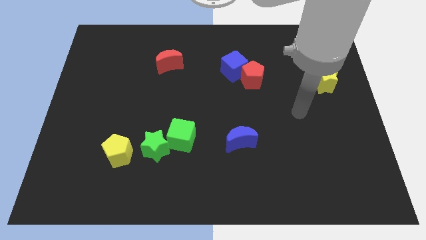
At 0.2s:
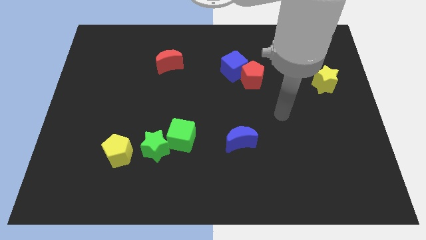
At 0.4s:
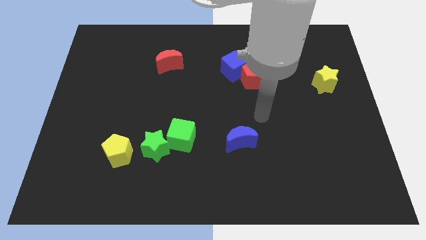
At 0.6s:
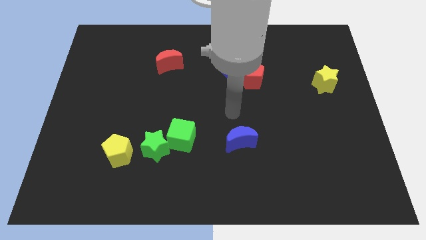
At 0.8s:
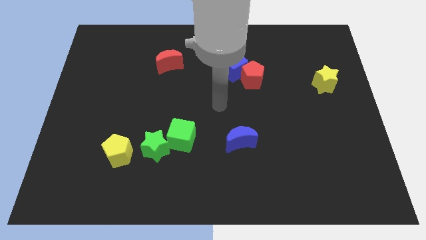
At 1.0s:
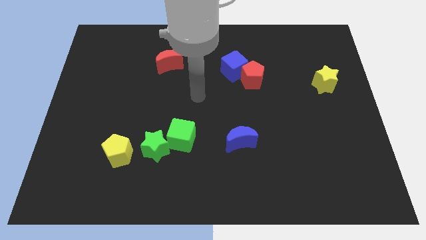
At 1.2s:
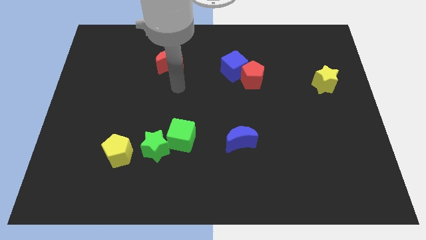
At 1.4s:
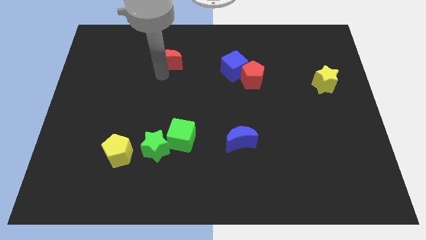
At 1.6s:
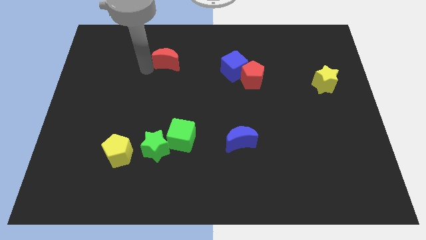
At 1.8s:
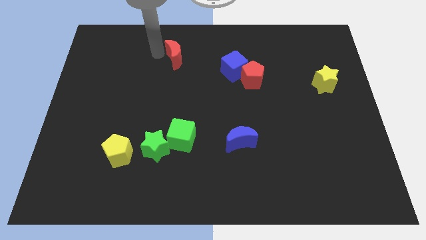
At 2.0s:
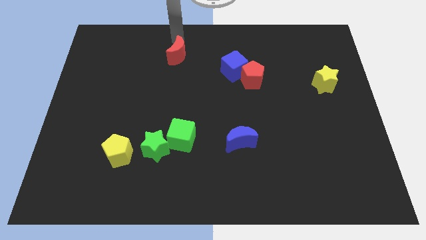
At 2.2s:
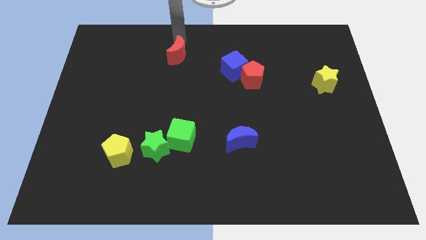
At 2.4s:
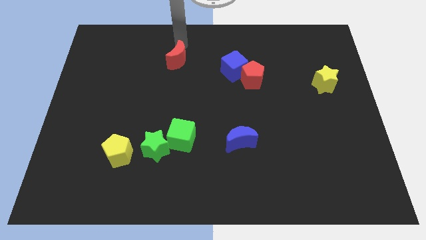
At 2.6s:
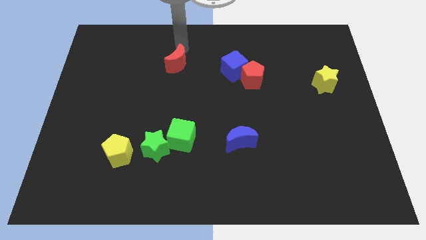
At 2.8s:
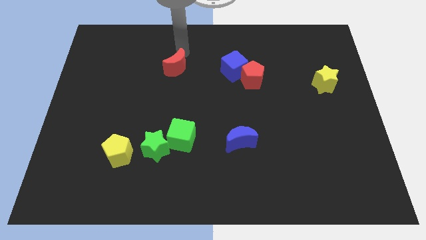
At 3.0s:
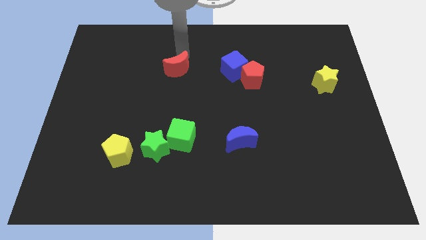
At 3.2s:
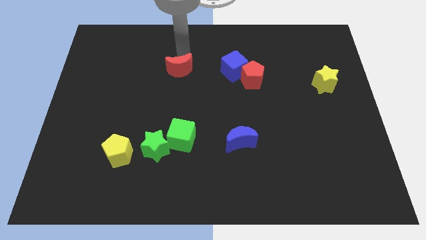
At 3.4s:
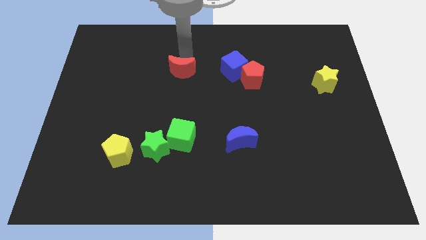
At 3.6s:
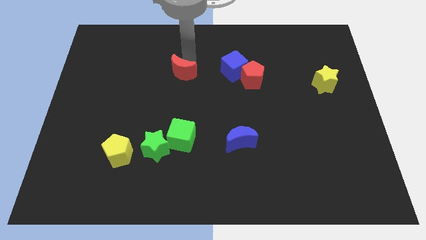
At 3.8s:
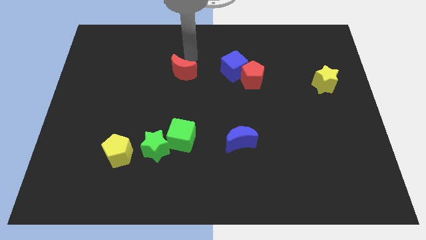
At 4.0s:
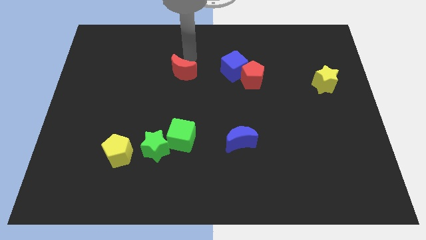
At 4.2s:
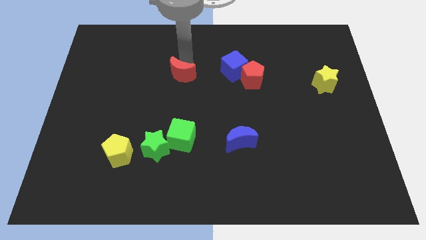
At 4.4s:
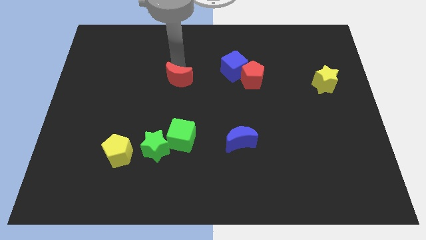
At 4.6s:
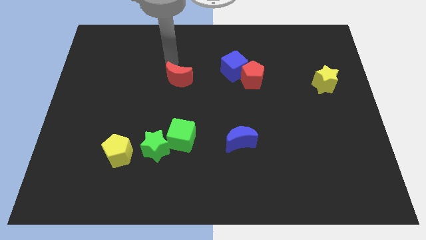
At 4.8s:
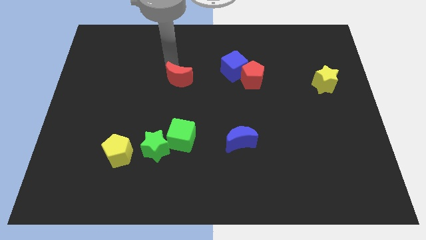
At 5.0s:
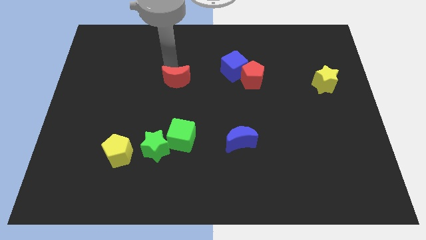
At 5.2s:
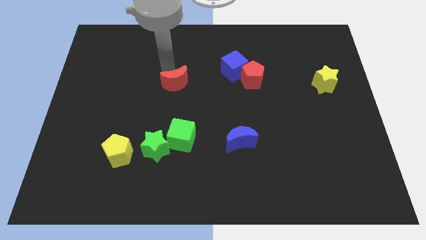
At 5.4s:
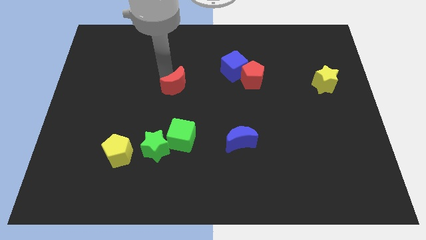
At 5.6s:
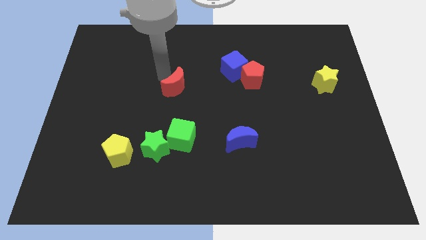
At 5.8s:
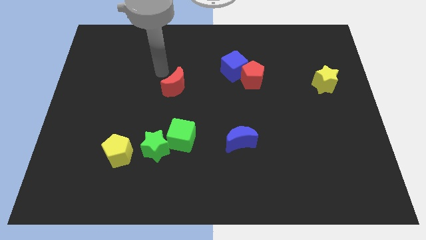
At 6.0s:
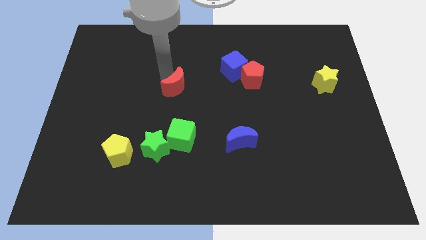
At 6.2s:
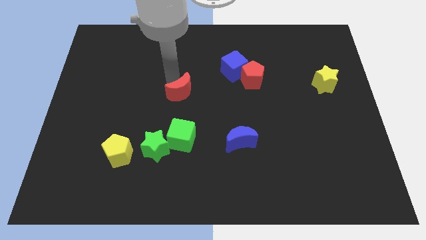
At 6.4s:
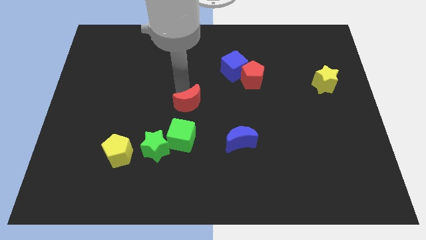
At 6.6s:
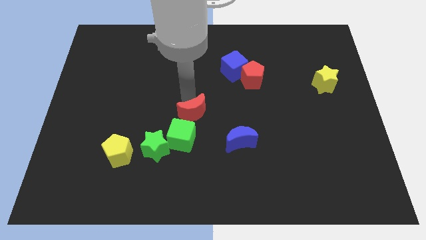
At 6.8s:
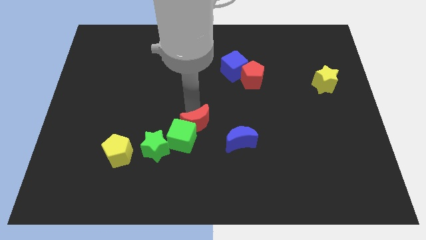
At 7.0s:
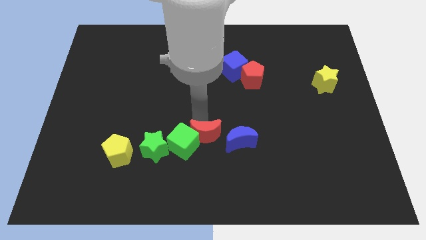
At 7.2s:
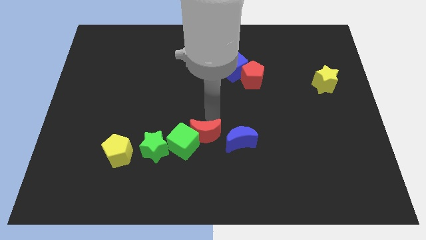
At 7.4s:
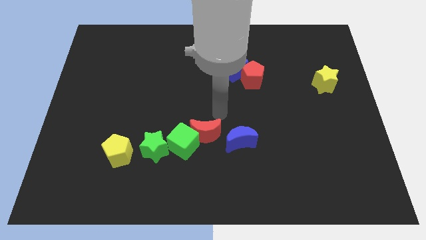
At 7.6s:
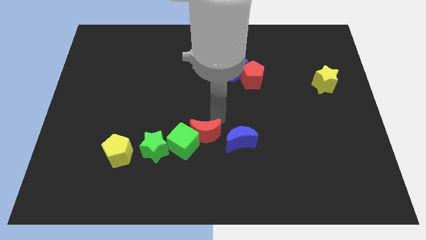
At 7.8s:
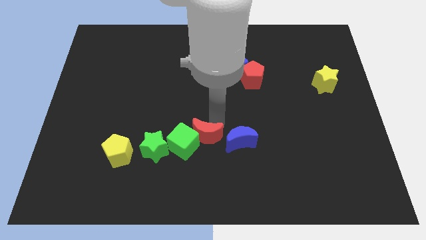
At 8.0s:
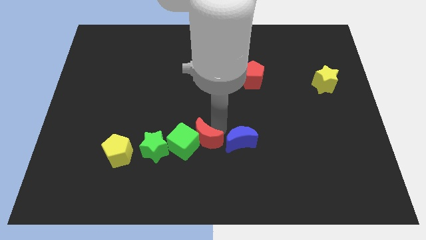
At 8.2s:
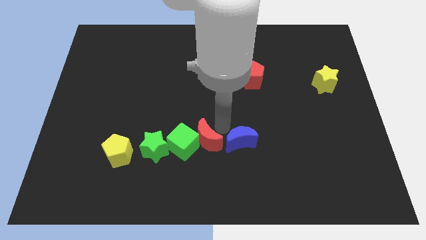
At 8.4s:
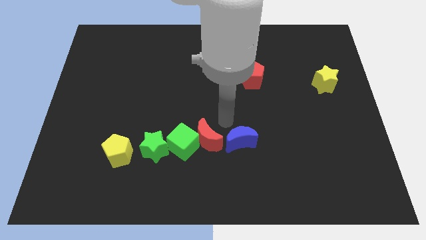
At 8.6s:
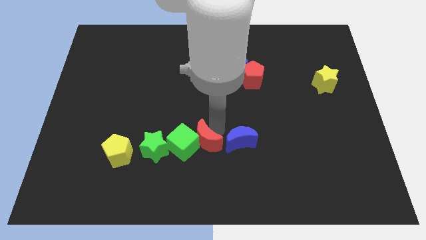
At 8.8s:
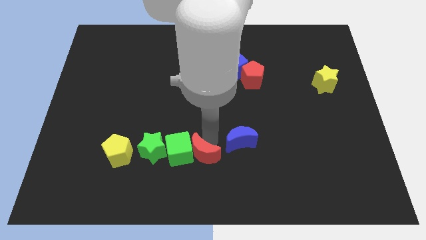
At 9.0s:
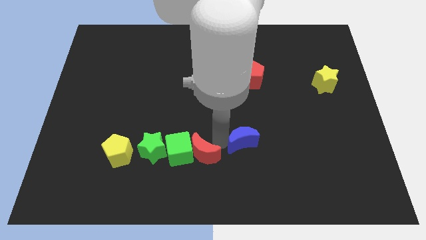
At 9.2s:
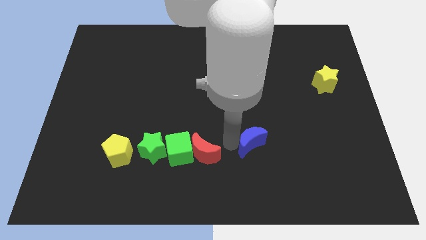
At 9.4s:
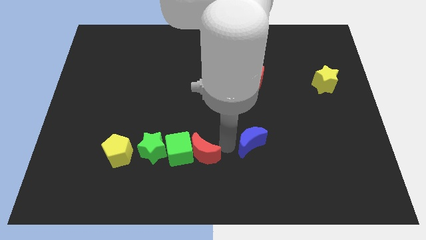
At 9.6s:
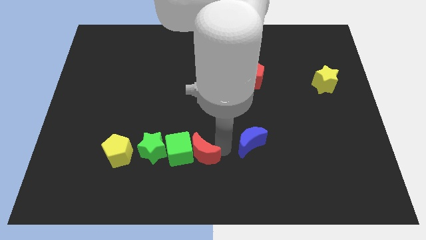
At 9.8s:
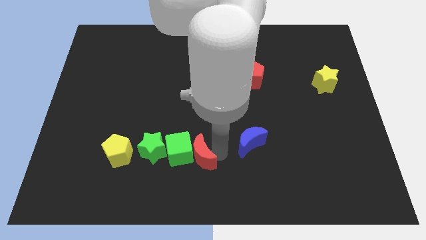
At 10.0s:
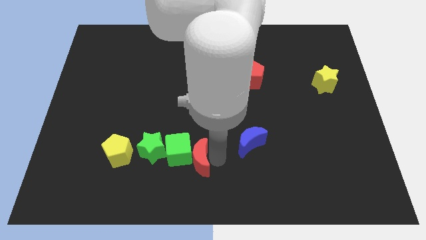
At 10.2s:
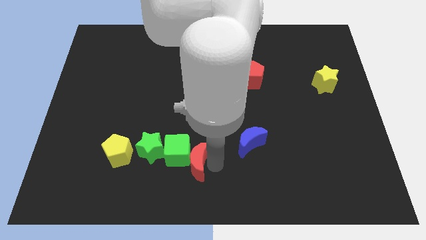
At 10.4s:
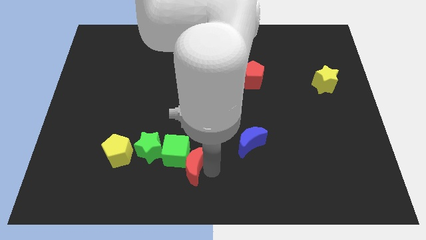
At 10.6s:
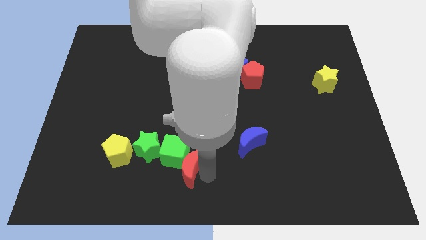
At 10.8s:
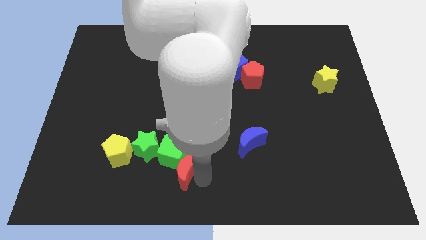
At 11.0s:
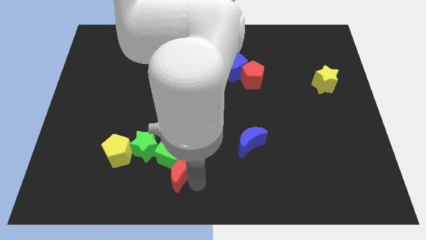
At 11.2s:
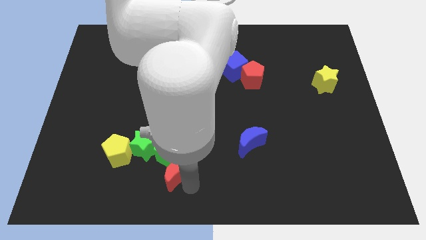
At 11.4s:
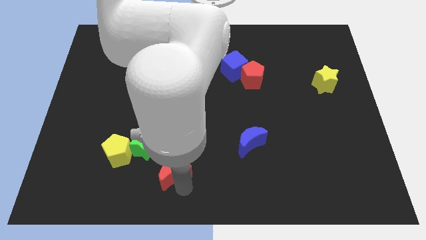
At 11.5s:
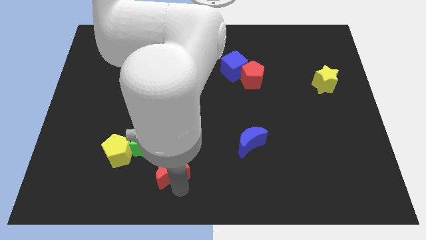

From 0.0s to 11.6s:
slide the red moon to the right of the yellow pentagon

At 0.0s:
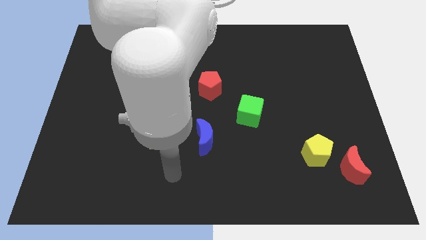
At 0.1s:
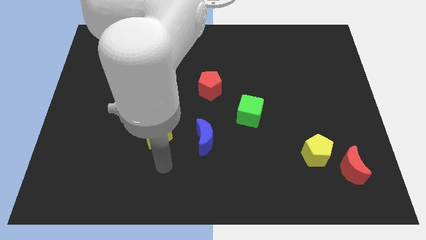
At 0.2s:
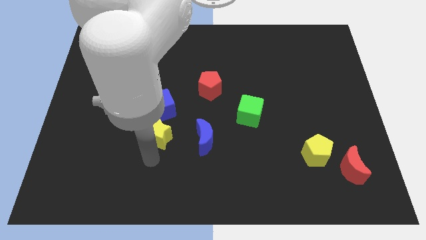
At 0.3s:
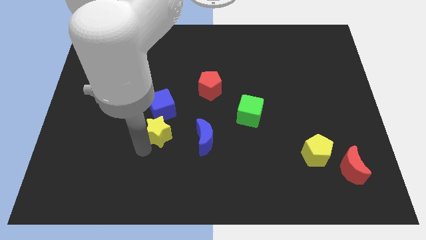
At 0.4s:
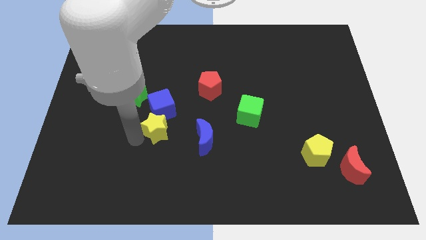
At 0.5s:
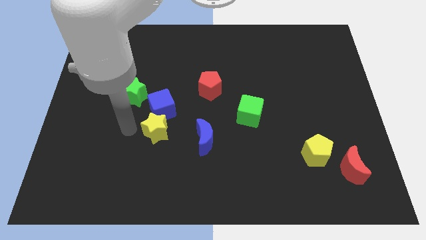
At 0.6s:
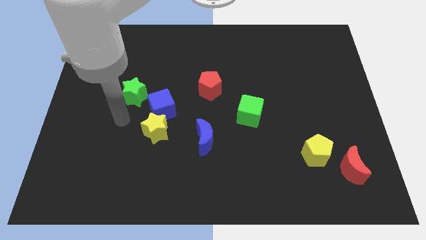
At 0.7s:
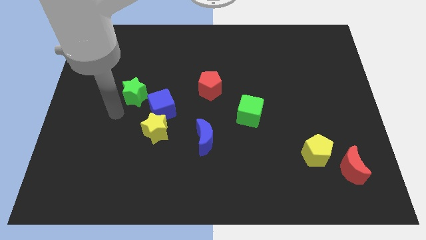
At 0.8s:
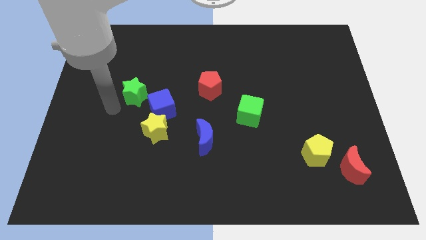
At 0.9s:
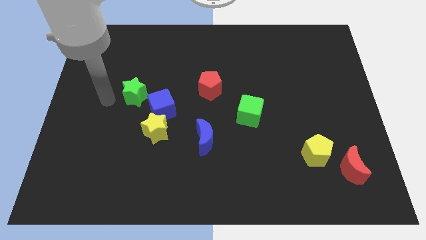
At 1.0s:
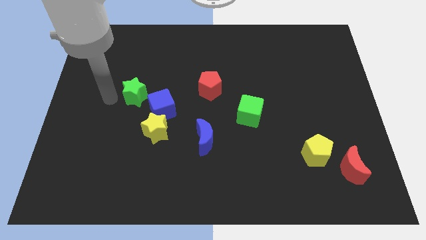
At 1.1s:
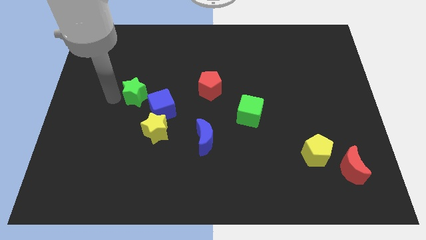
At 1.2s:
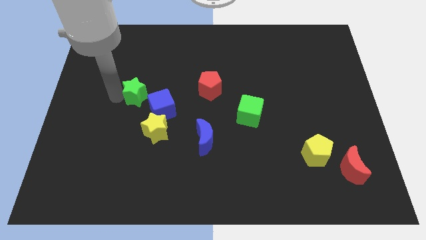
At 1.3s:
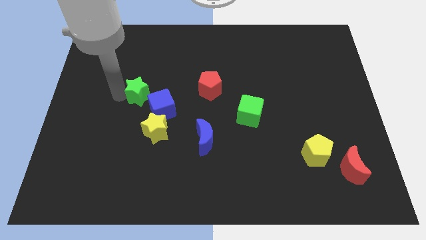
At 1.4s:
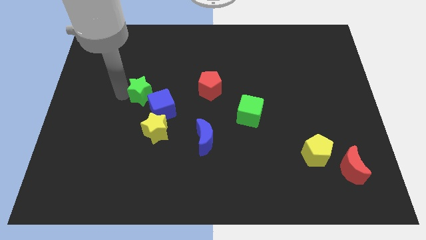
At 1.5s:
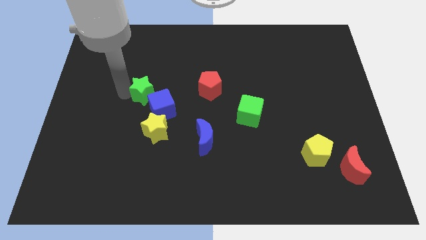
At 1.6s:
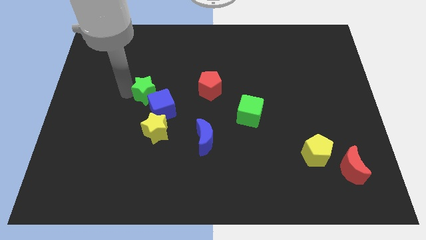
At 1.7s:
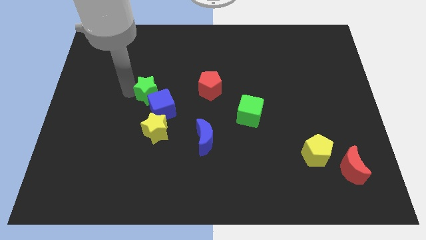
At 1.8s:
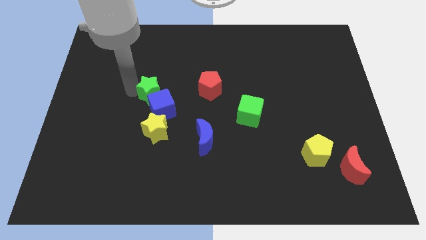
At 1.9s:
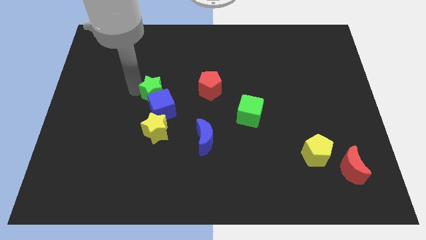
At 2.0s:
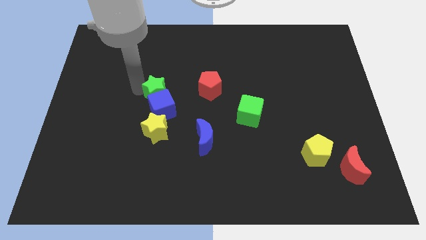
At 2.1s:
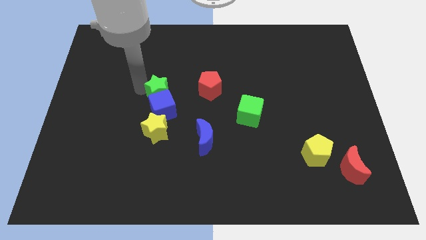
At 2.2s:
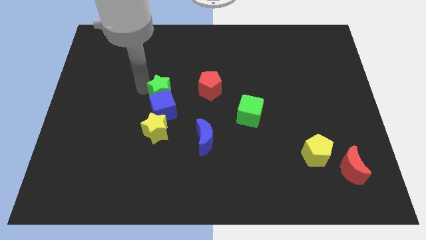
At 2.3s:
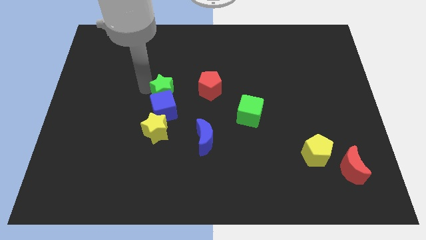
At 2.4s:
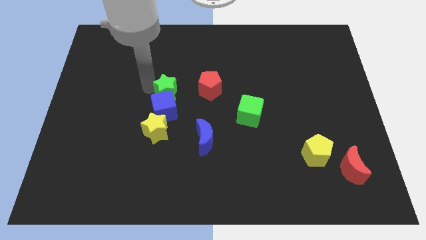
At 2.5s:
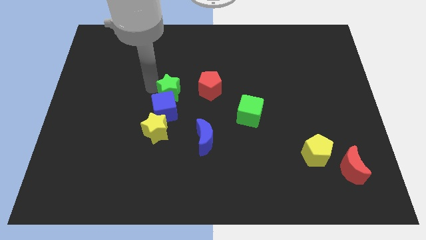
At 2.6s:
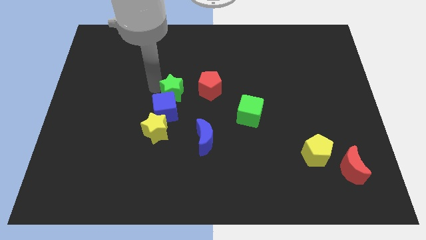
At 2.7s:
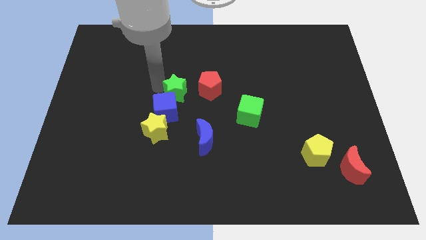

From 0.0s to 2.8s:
put the green star diagonally down and to the left of the red pentagon
